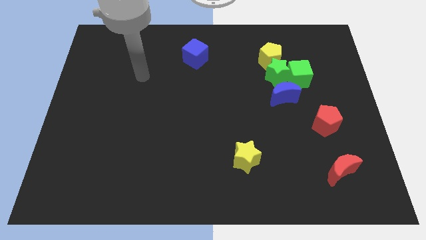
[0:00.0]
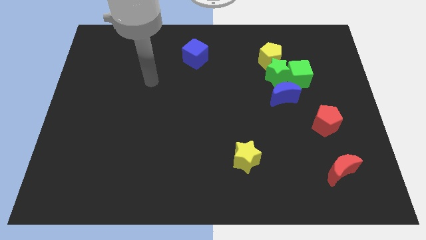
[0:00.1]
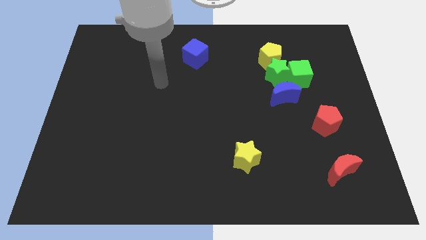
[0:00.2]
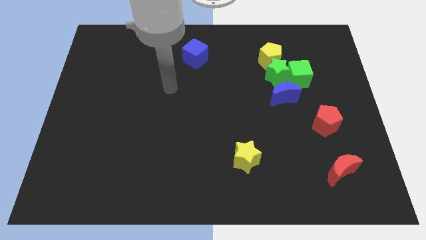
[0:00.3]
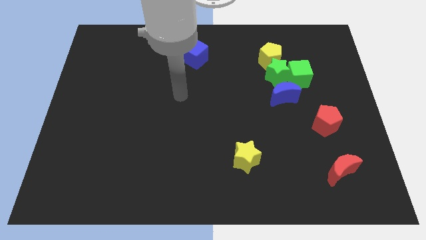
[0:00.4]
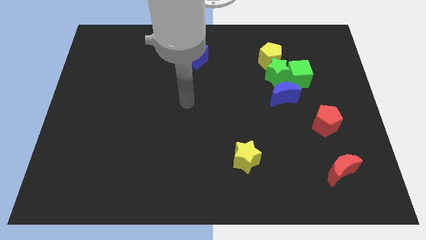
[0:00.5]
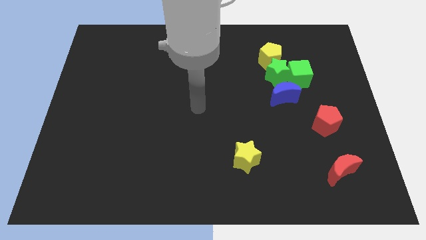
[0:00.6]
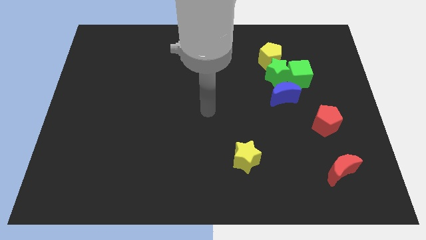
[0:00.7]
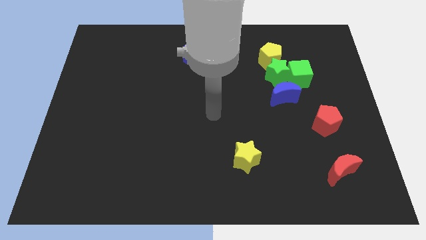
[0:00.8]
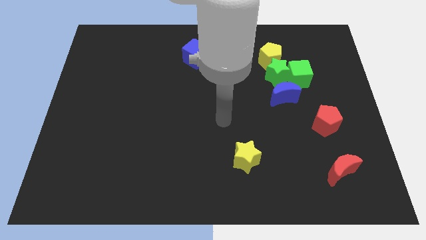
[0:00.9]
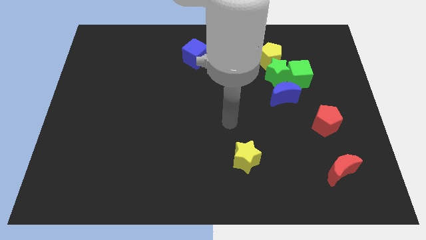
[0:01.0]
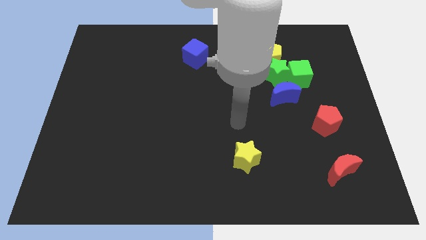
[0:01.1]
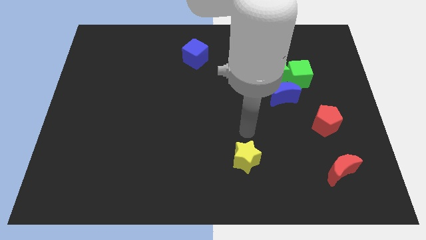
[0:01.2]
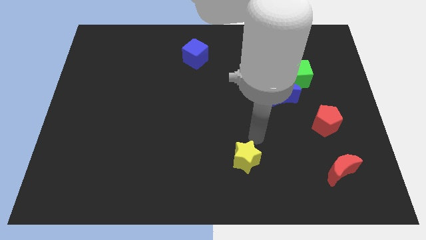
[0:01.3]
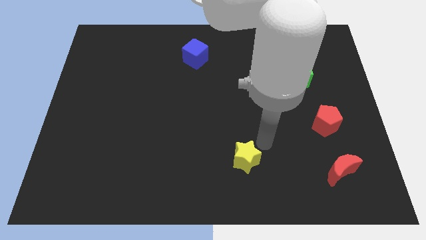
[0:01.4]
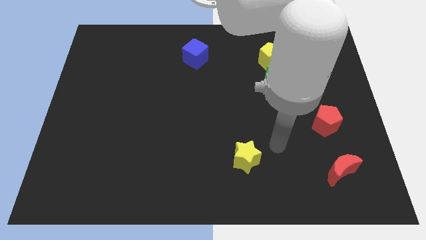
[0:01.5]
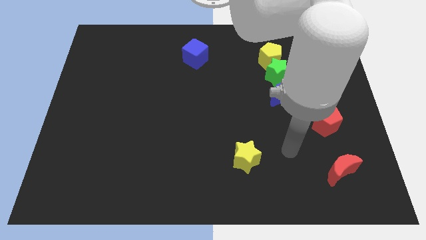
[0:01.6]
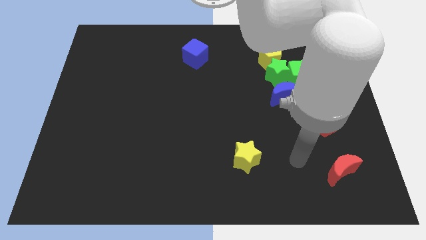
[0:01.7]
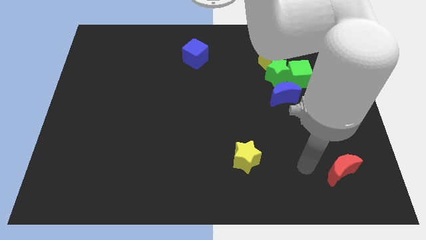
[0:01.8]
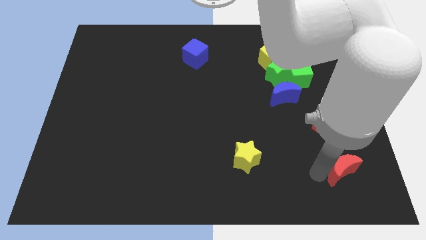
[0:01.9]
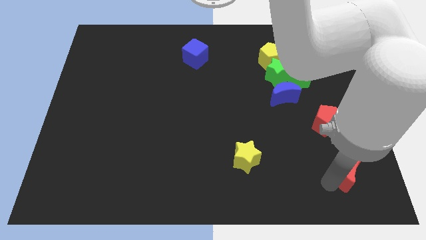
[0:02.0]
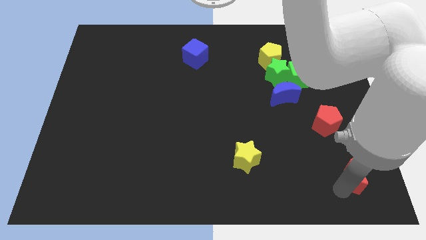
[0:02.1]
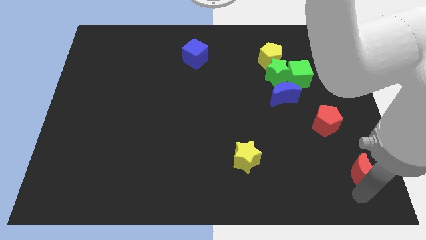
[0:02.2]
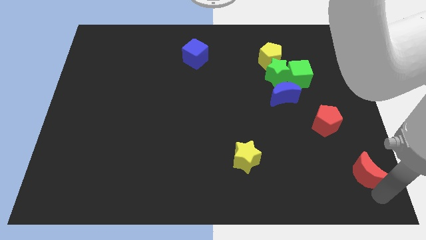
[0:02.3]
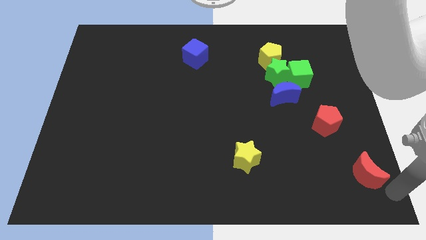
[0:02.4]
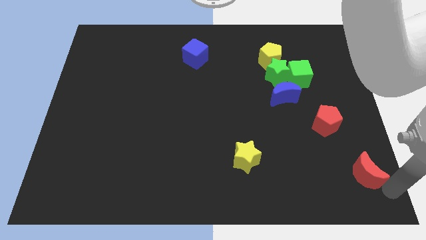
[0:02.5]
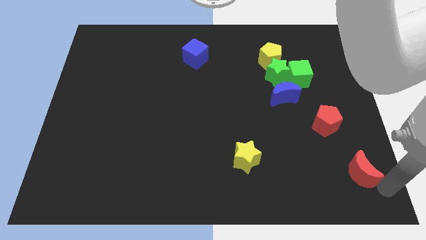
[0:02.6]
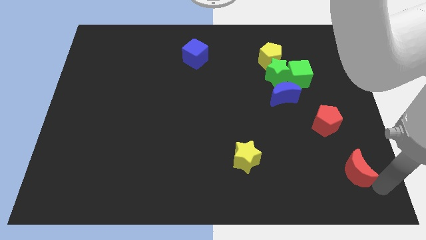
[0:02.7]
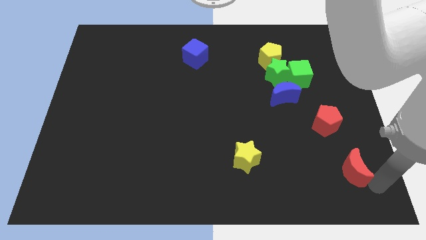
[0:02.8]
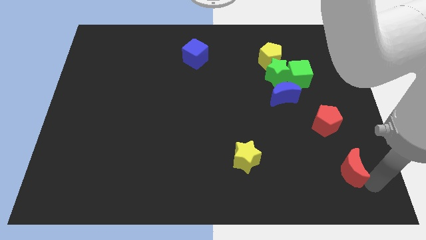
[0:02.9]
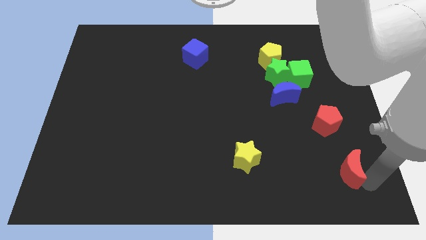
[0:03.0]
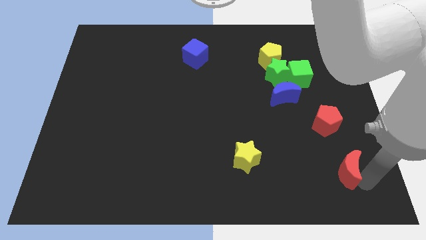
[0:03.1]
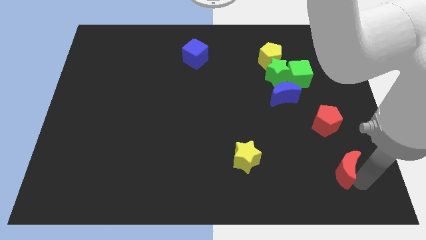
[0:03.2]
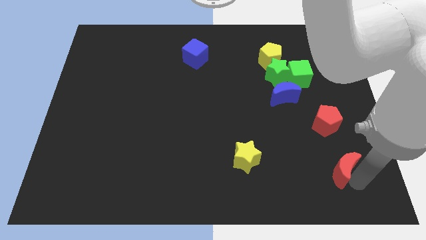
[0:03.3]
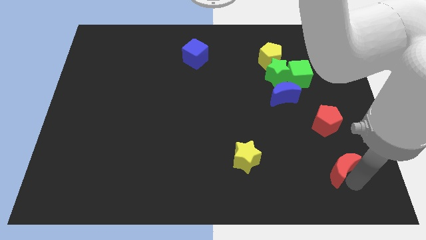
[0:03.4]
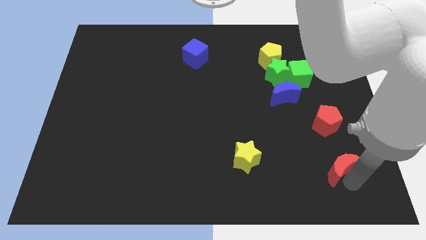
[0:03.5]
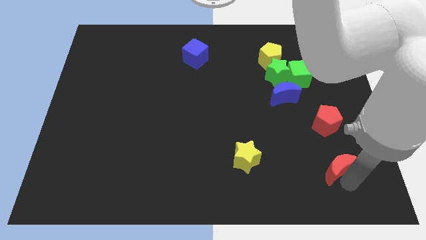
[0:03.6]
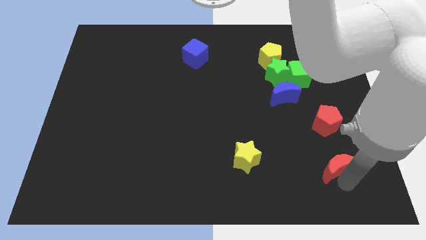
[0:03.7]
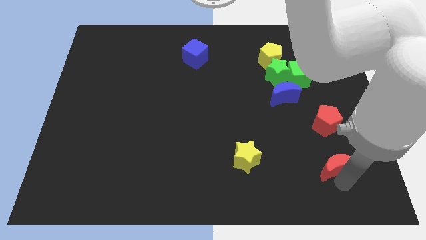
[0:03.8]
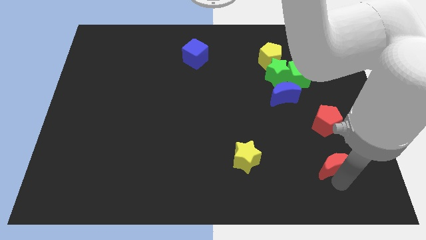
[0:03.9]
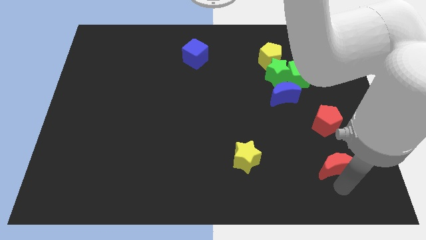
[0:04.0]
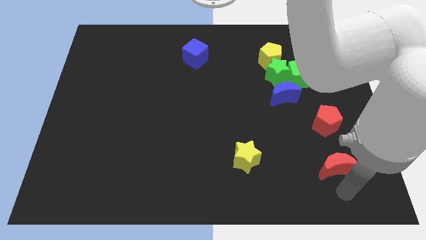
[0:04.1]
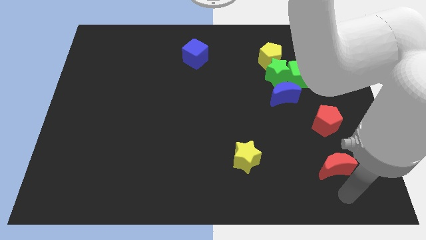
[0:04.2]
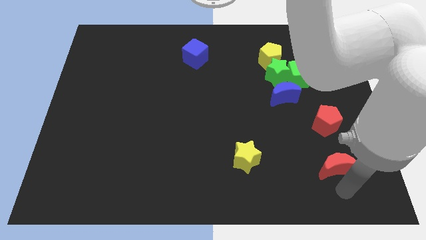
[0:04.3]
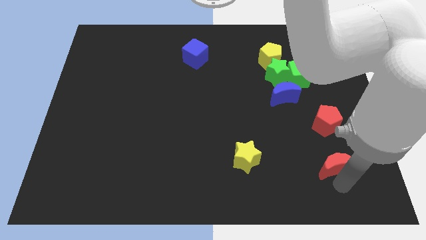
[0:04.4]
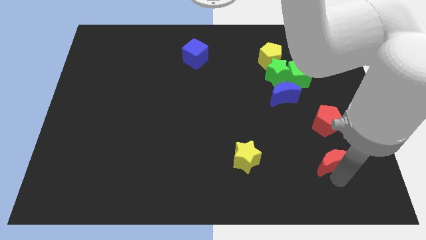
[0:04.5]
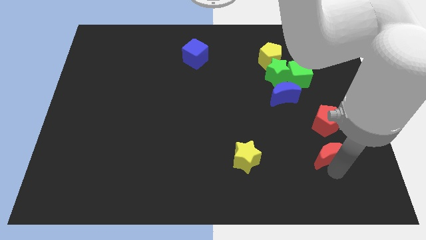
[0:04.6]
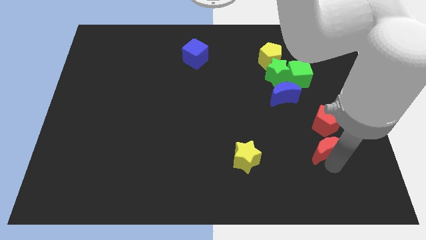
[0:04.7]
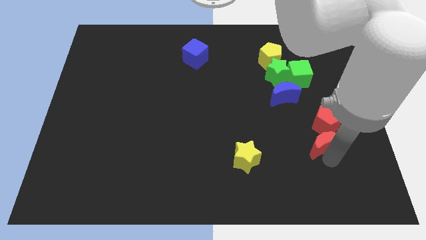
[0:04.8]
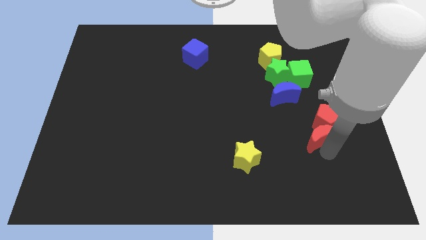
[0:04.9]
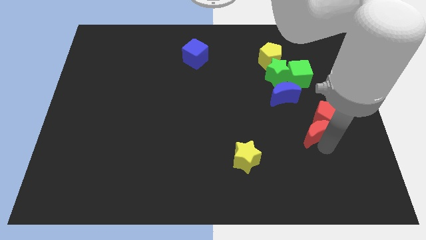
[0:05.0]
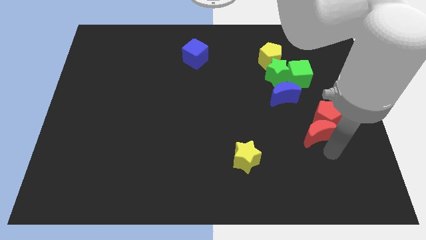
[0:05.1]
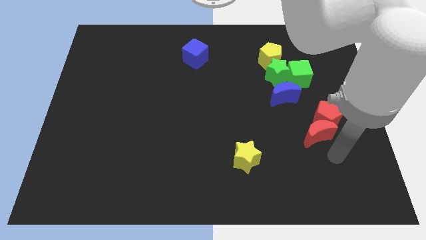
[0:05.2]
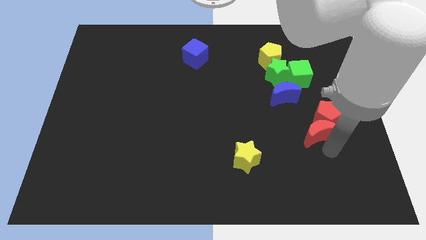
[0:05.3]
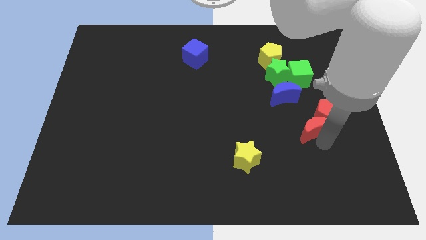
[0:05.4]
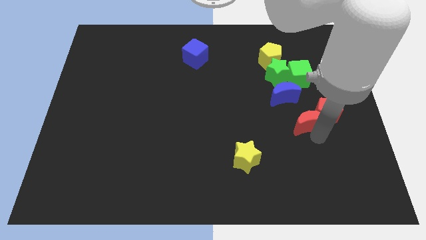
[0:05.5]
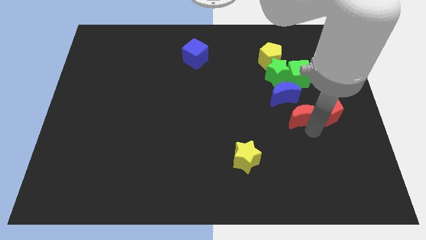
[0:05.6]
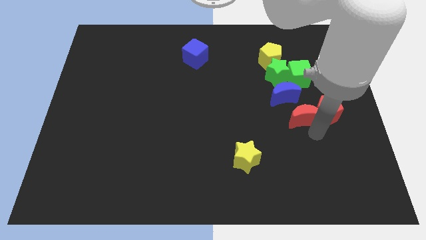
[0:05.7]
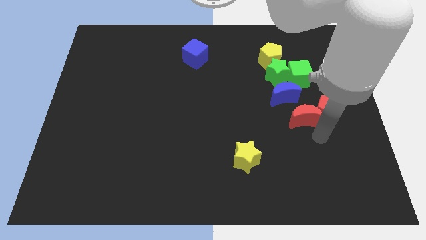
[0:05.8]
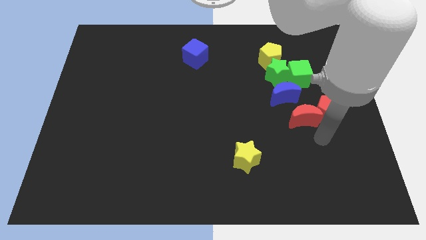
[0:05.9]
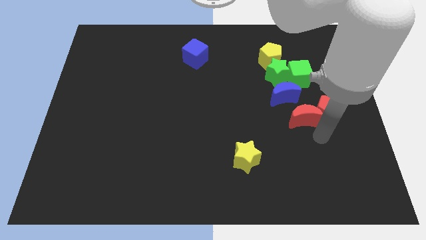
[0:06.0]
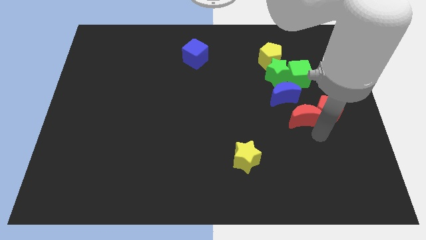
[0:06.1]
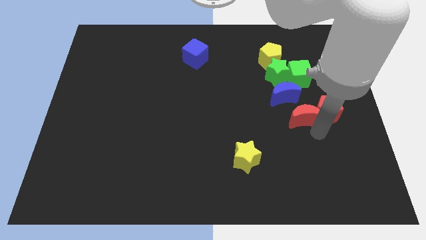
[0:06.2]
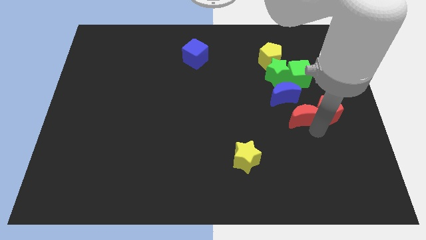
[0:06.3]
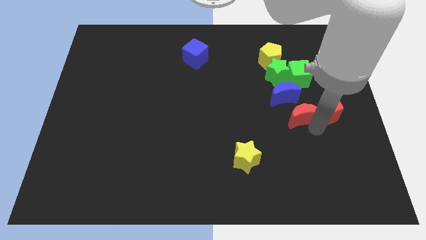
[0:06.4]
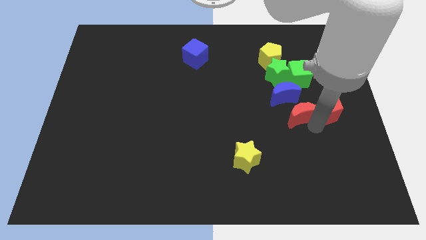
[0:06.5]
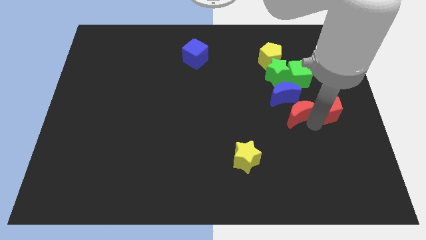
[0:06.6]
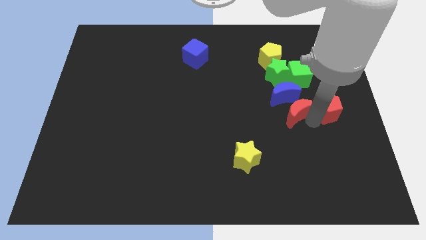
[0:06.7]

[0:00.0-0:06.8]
put the red moon to the blue moon
